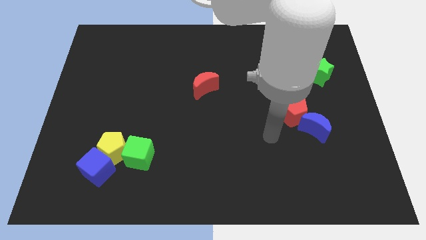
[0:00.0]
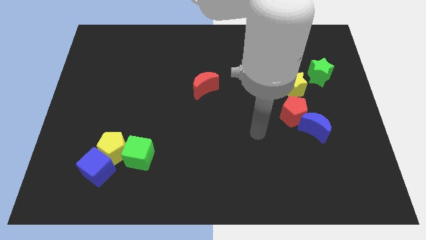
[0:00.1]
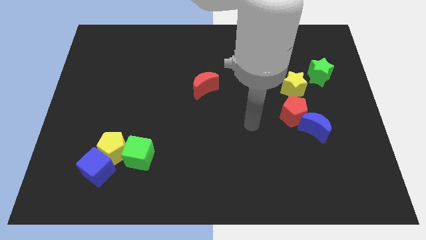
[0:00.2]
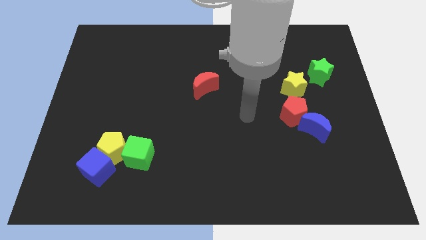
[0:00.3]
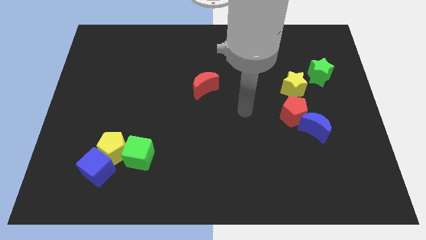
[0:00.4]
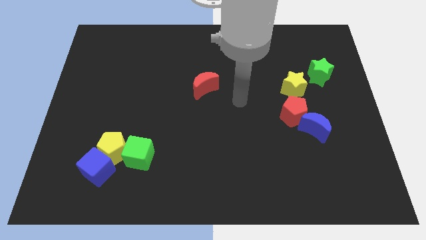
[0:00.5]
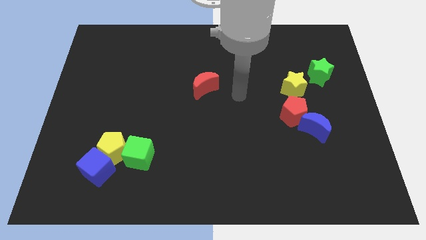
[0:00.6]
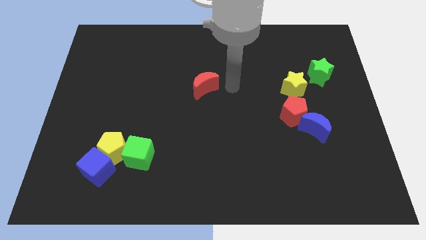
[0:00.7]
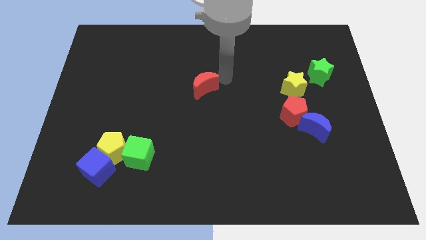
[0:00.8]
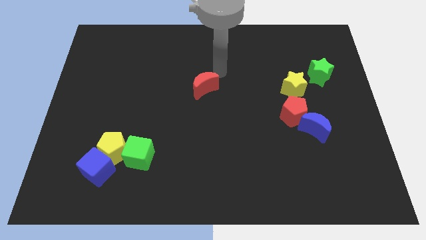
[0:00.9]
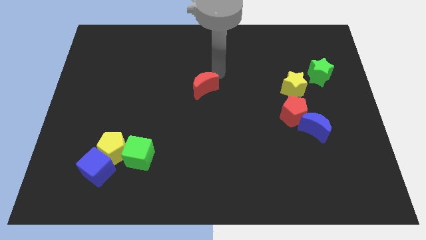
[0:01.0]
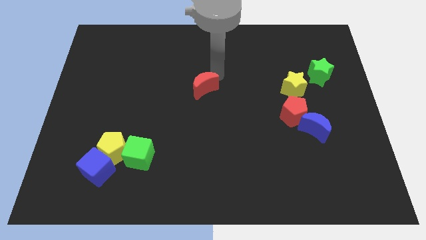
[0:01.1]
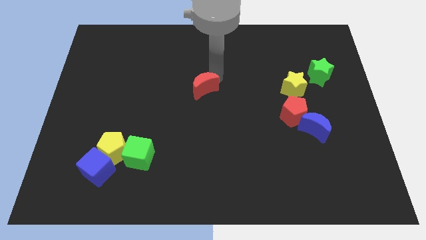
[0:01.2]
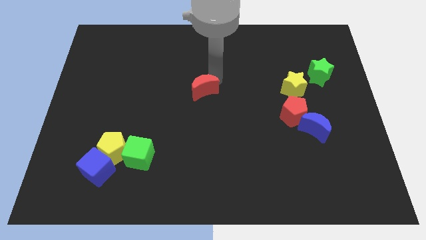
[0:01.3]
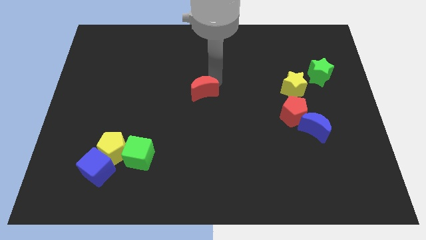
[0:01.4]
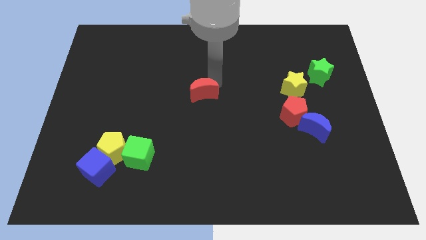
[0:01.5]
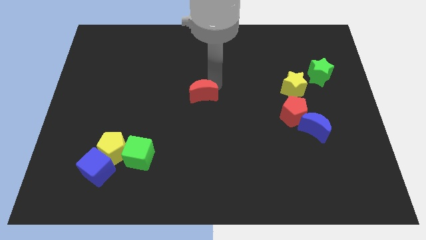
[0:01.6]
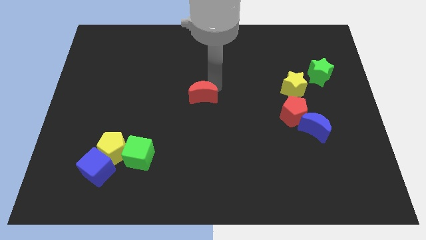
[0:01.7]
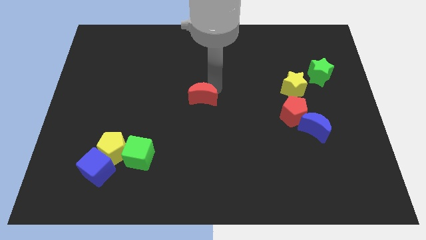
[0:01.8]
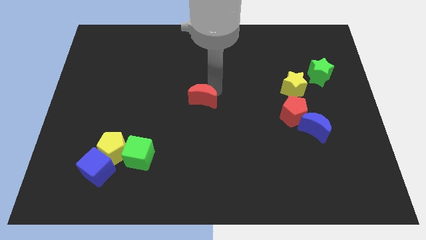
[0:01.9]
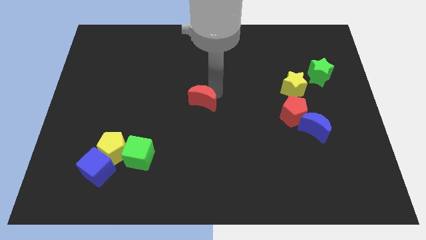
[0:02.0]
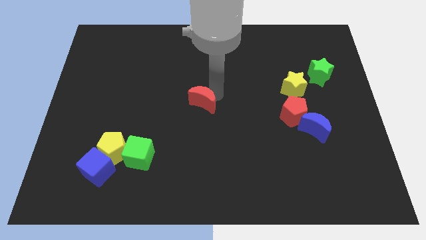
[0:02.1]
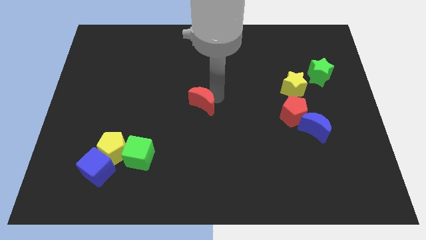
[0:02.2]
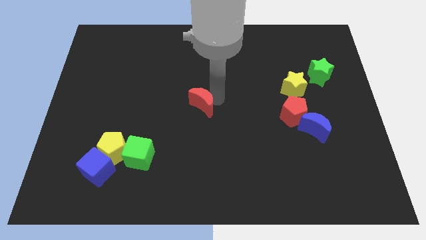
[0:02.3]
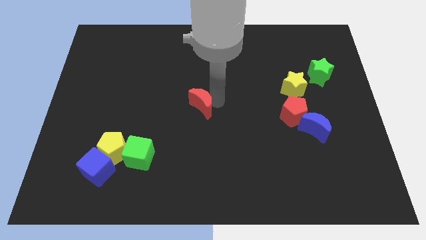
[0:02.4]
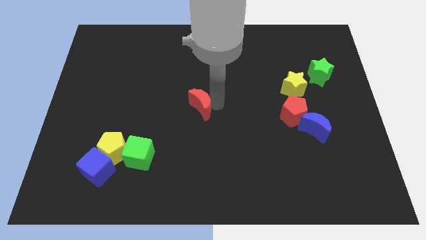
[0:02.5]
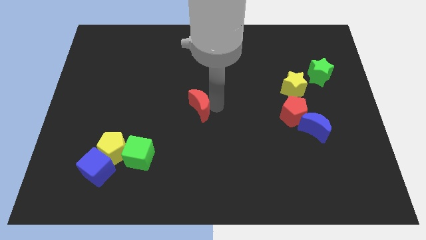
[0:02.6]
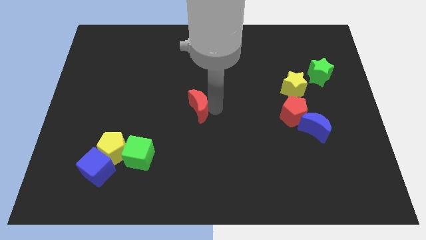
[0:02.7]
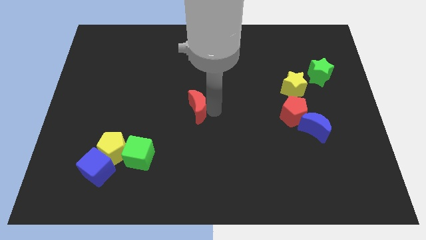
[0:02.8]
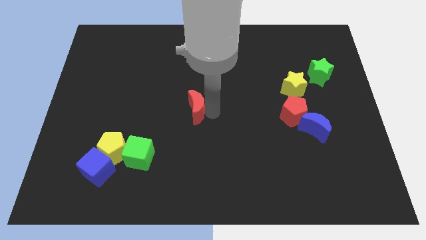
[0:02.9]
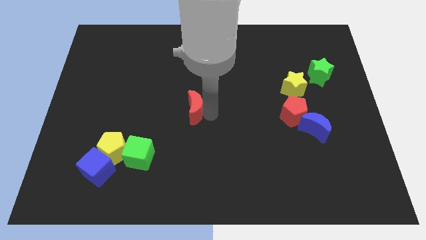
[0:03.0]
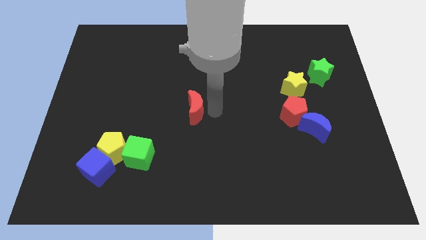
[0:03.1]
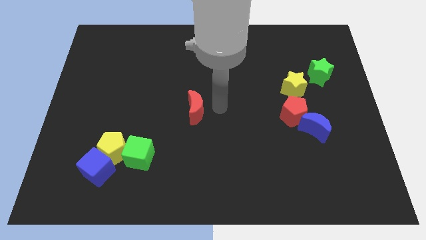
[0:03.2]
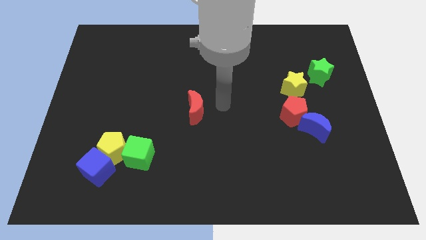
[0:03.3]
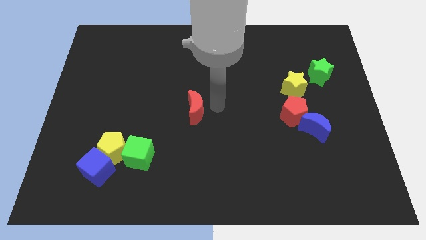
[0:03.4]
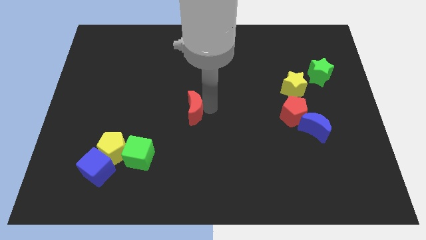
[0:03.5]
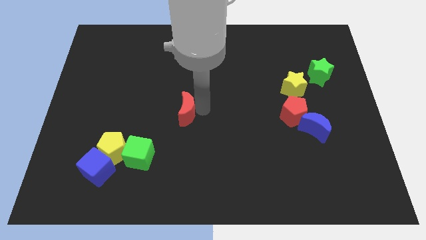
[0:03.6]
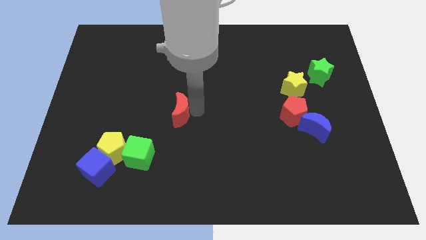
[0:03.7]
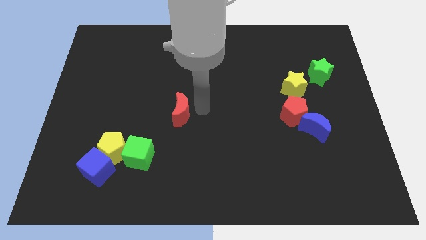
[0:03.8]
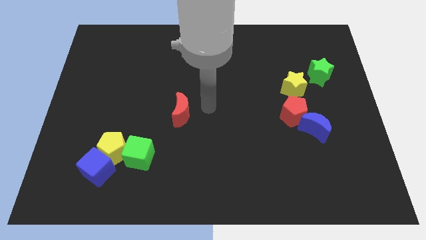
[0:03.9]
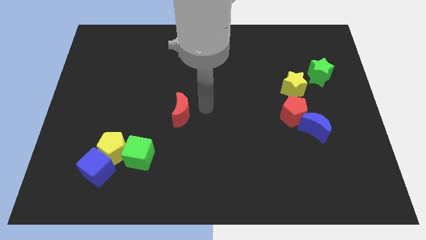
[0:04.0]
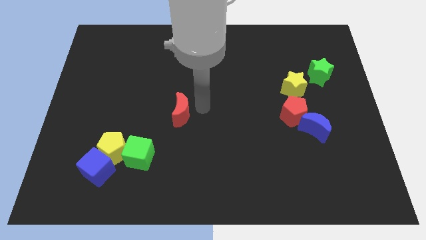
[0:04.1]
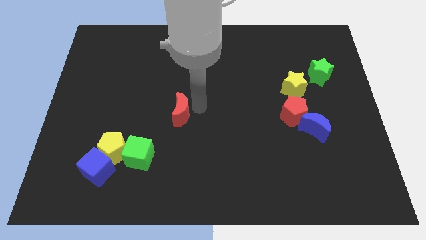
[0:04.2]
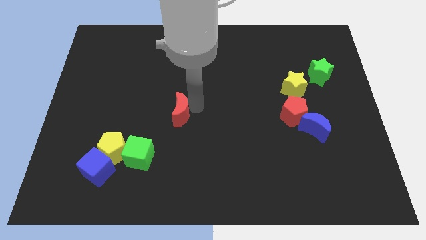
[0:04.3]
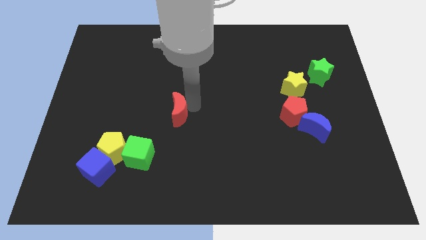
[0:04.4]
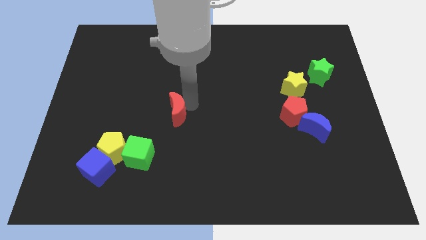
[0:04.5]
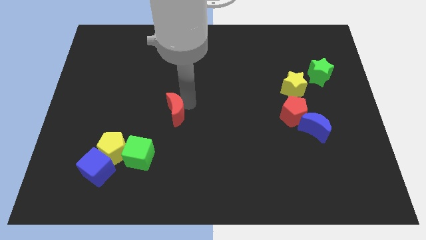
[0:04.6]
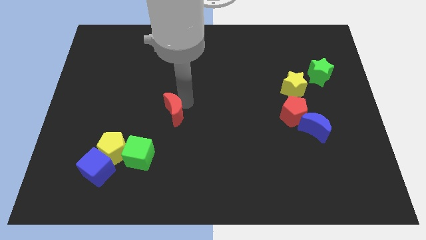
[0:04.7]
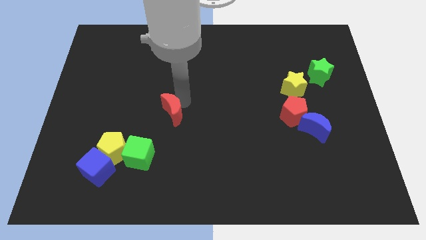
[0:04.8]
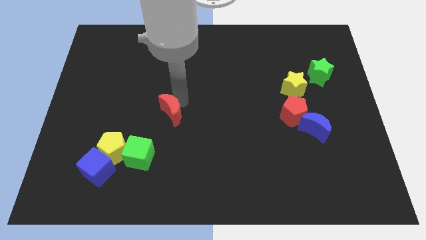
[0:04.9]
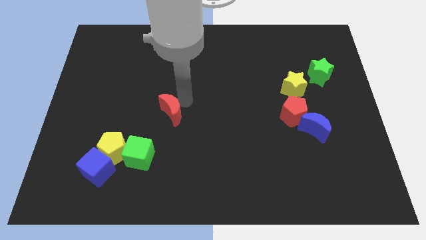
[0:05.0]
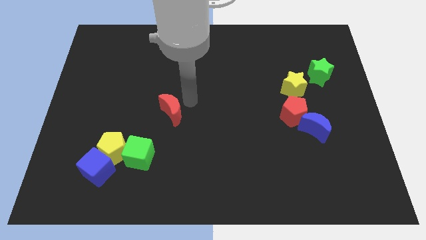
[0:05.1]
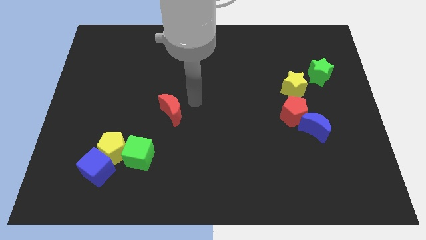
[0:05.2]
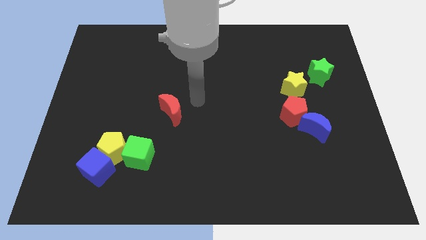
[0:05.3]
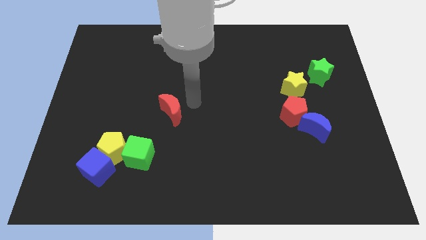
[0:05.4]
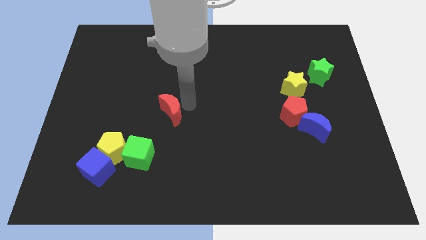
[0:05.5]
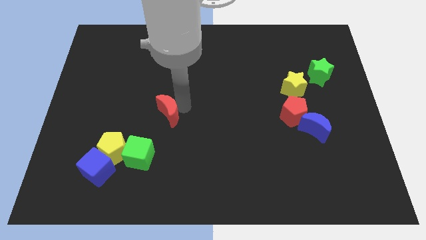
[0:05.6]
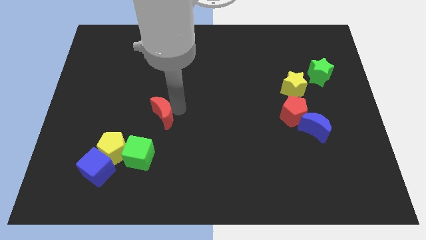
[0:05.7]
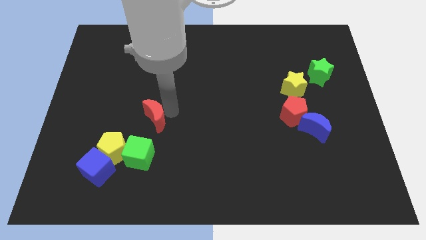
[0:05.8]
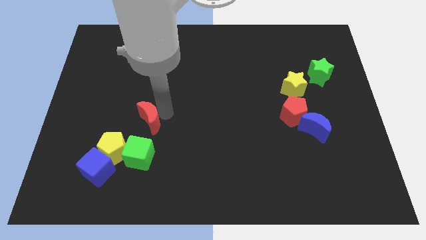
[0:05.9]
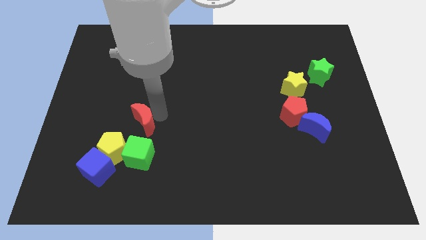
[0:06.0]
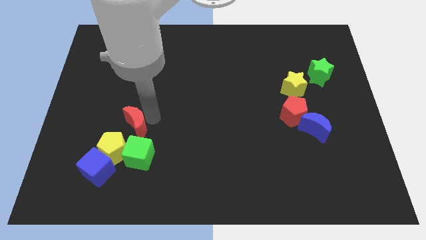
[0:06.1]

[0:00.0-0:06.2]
put the red moon to the top left side of the green cube
